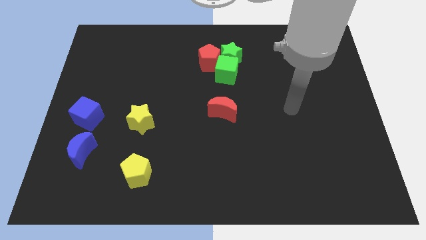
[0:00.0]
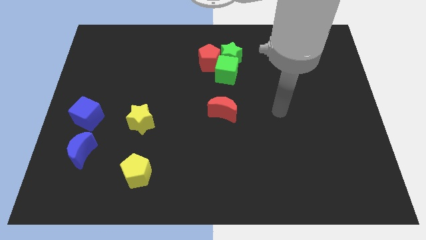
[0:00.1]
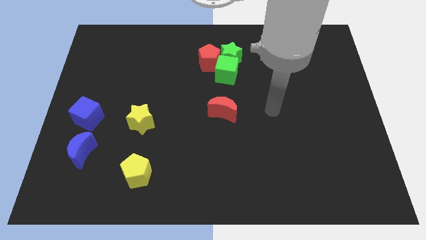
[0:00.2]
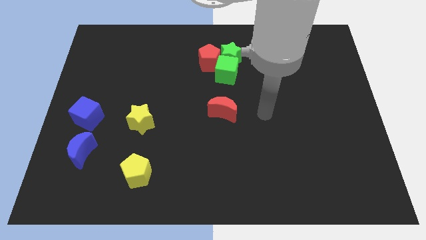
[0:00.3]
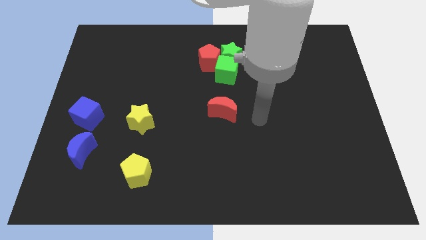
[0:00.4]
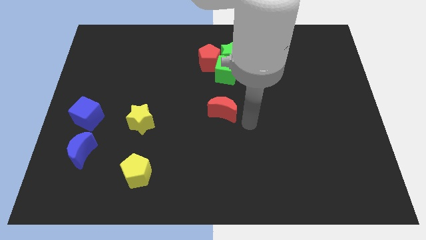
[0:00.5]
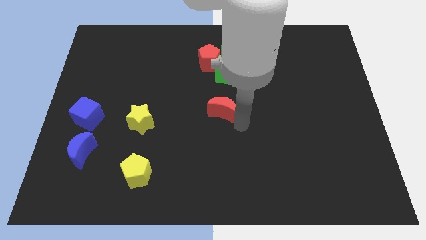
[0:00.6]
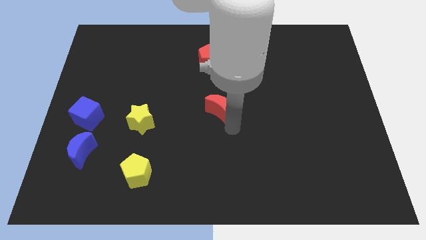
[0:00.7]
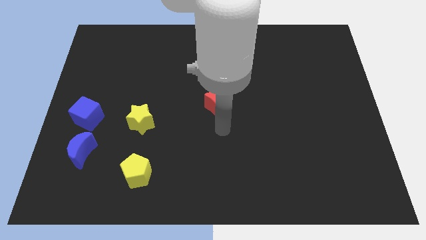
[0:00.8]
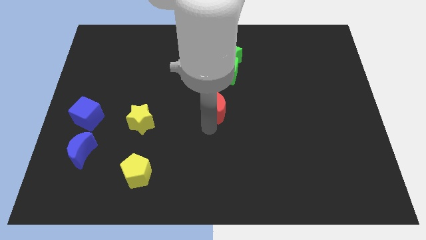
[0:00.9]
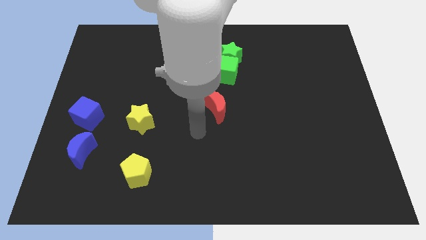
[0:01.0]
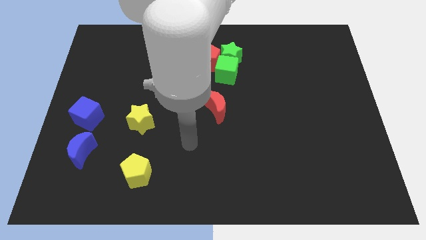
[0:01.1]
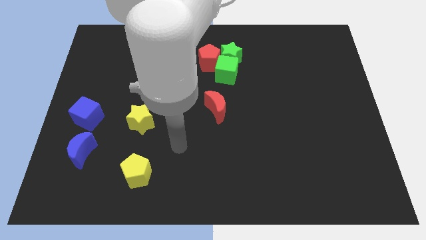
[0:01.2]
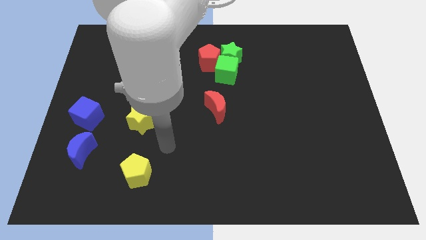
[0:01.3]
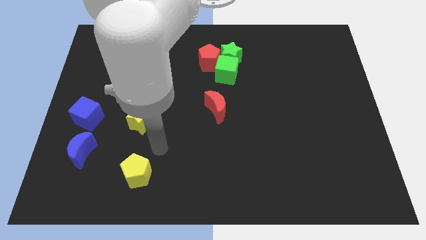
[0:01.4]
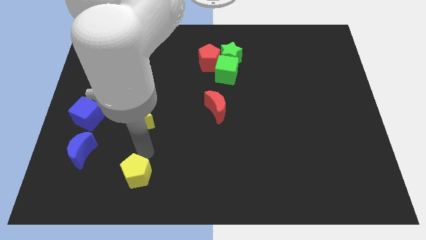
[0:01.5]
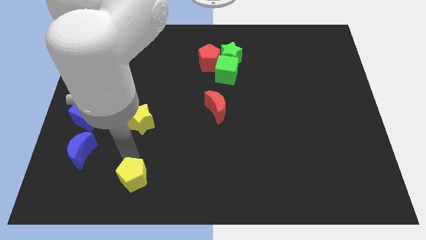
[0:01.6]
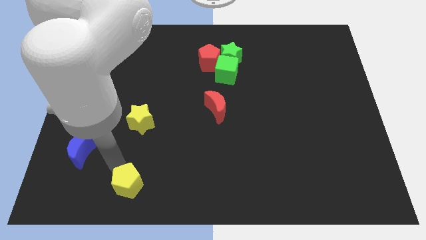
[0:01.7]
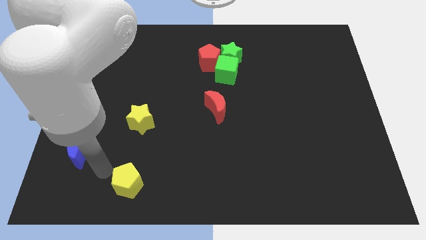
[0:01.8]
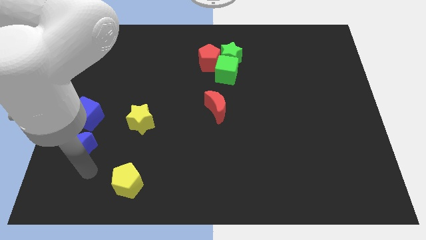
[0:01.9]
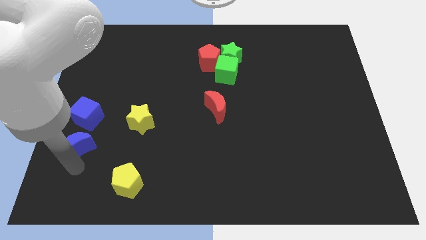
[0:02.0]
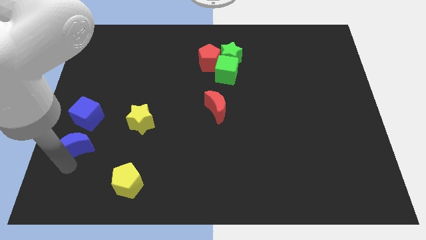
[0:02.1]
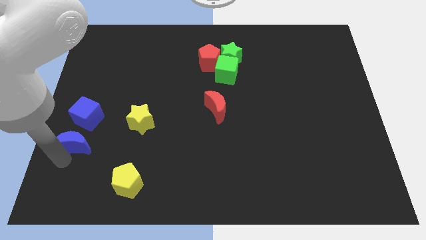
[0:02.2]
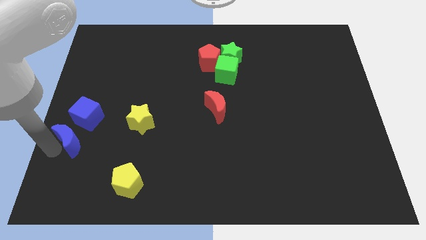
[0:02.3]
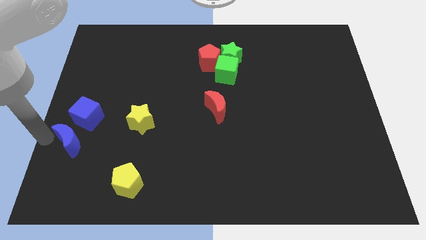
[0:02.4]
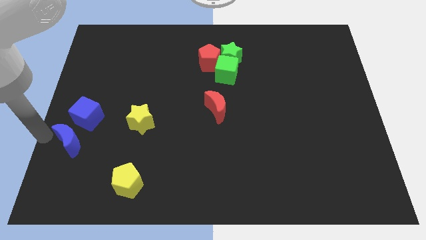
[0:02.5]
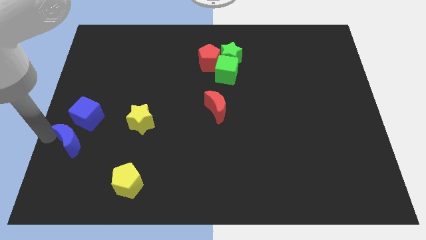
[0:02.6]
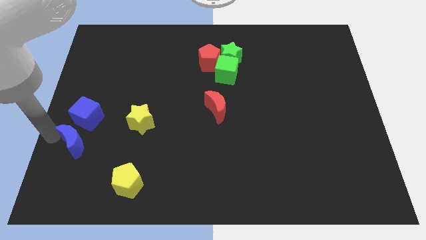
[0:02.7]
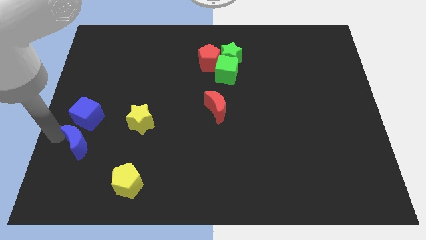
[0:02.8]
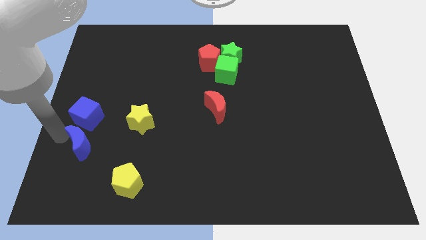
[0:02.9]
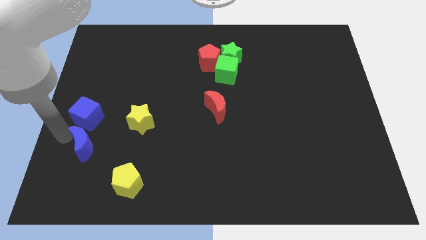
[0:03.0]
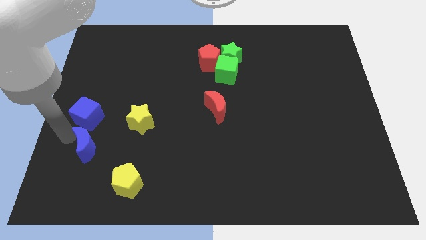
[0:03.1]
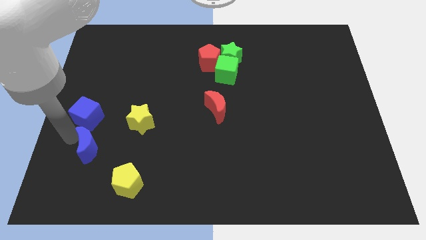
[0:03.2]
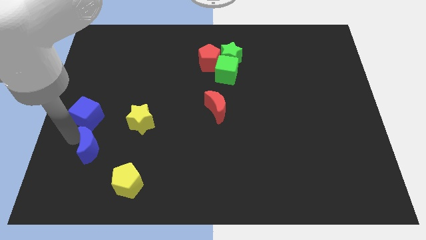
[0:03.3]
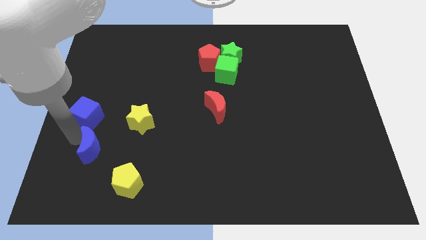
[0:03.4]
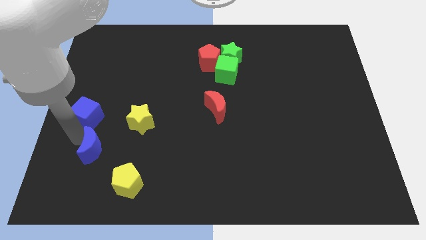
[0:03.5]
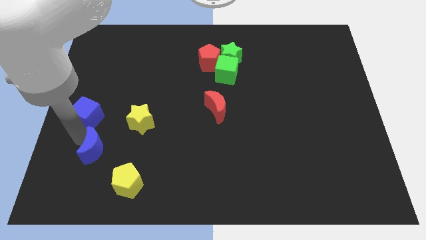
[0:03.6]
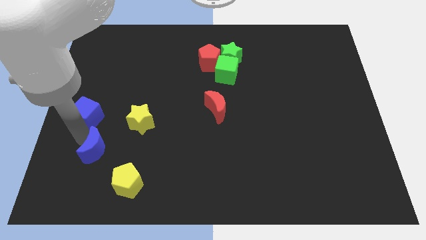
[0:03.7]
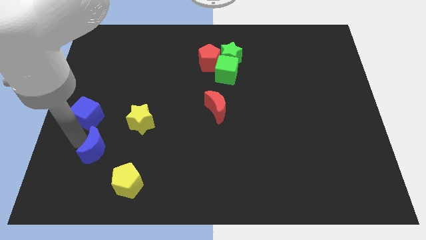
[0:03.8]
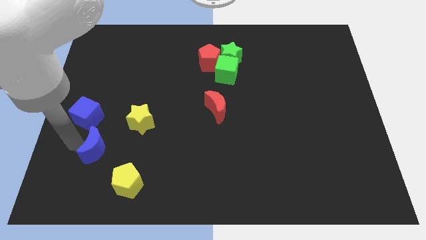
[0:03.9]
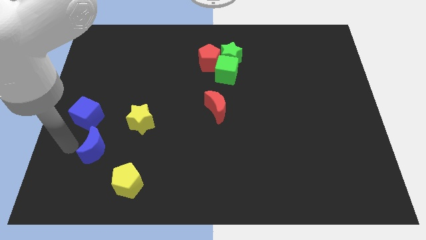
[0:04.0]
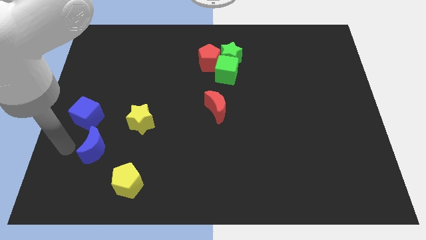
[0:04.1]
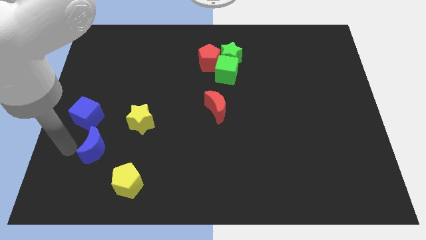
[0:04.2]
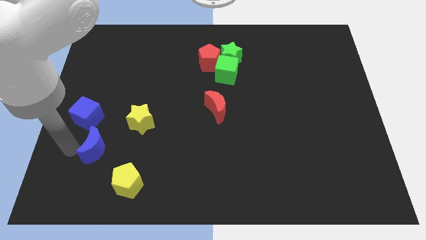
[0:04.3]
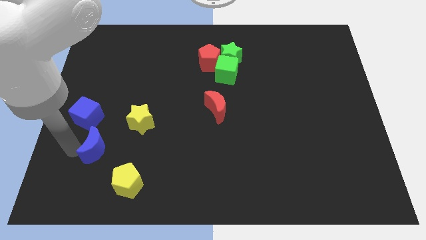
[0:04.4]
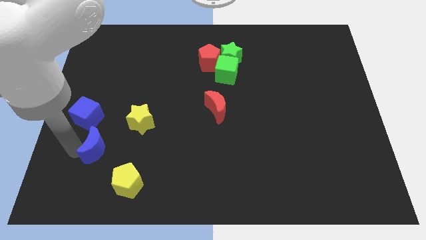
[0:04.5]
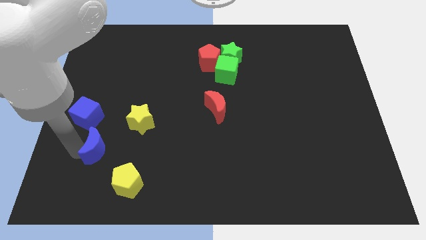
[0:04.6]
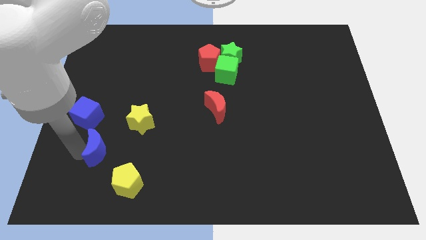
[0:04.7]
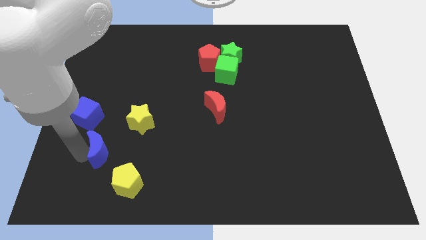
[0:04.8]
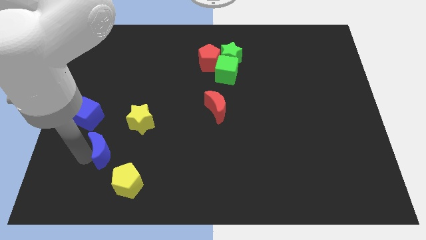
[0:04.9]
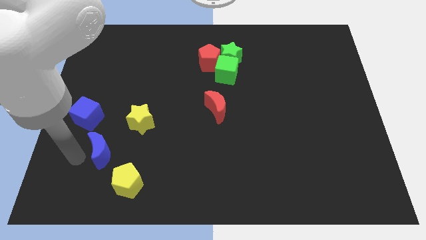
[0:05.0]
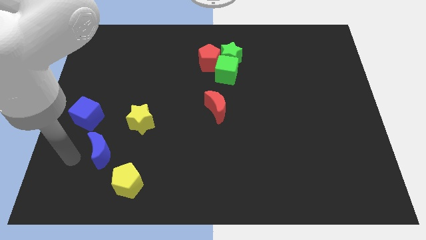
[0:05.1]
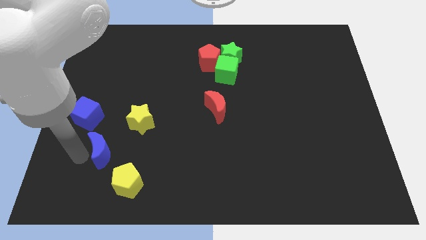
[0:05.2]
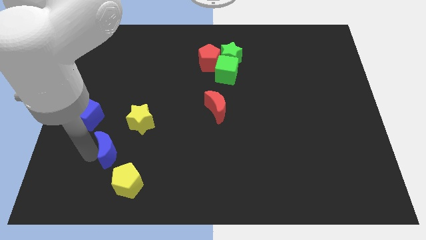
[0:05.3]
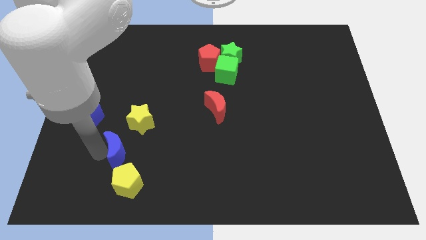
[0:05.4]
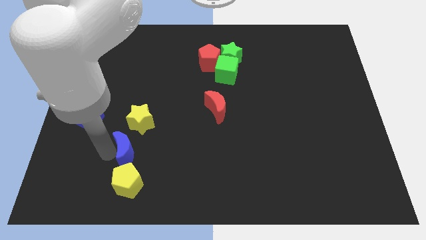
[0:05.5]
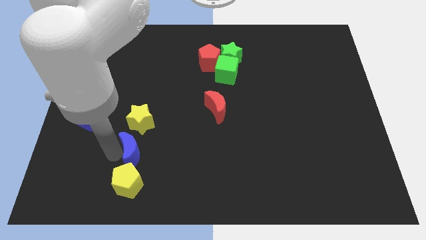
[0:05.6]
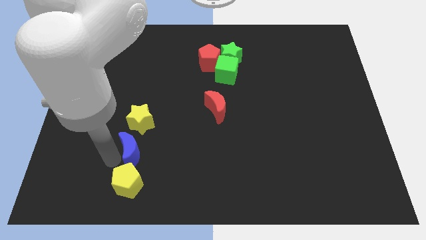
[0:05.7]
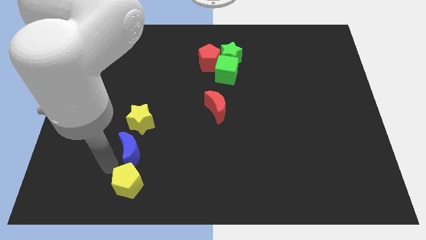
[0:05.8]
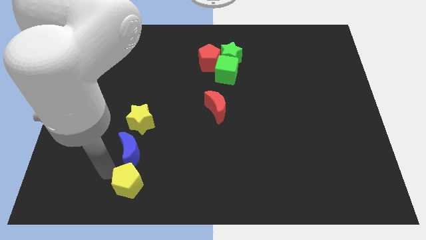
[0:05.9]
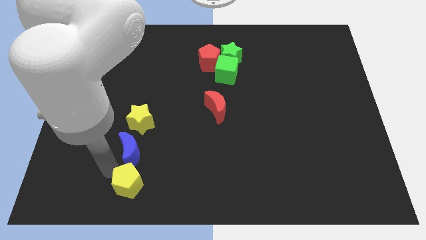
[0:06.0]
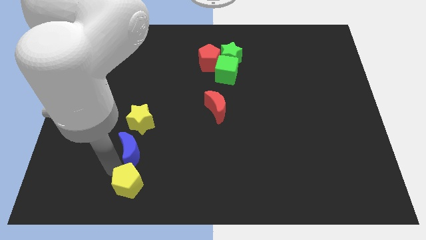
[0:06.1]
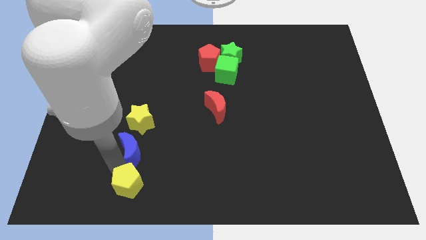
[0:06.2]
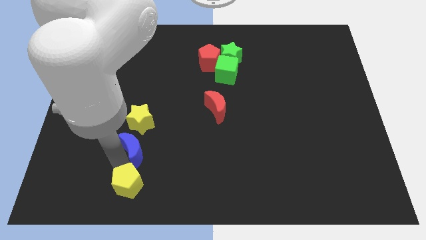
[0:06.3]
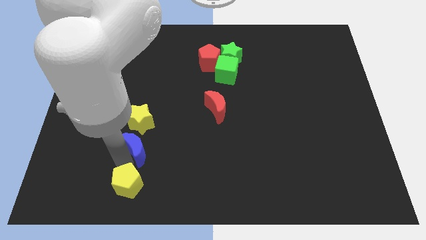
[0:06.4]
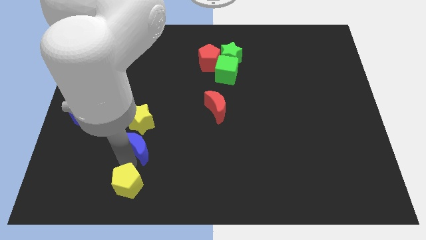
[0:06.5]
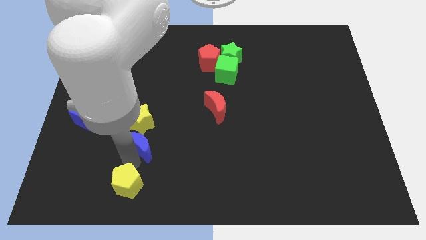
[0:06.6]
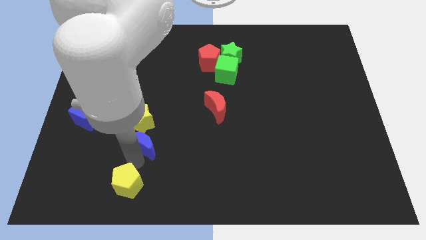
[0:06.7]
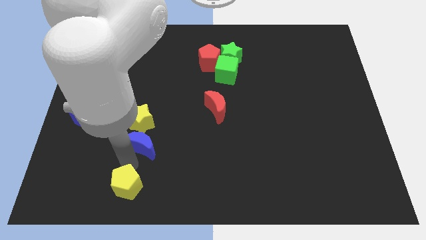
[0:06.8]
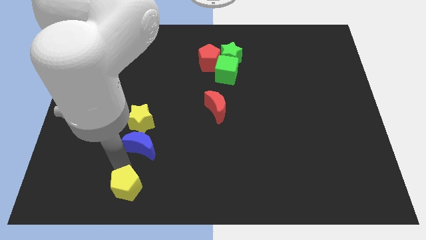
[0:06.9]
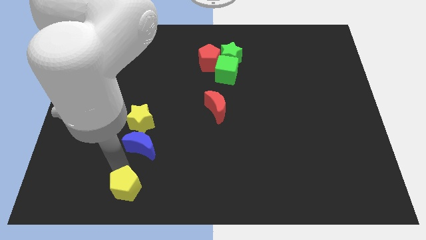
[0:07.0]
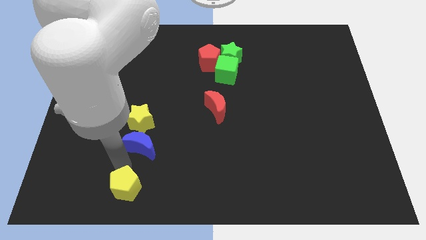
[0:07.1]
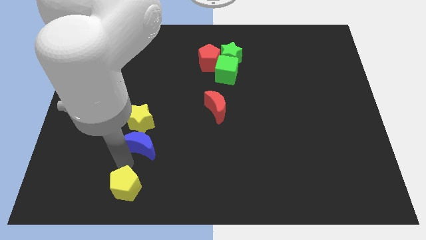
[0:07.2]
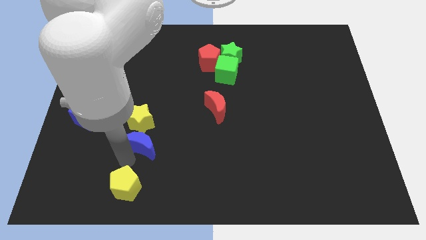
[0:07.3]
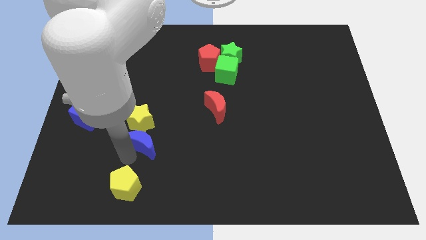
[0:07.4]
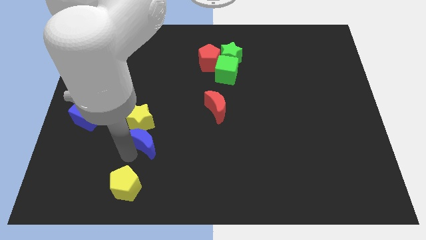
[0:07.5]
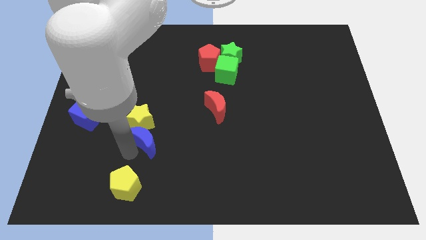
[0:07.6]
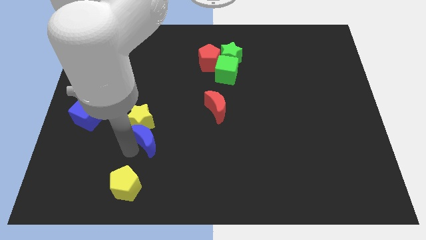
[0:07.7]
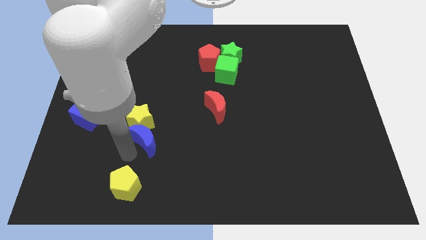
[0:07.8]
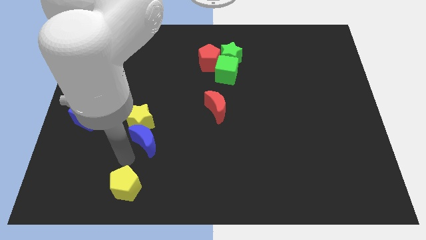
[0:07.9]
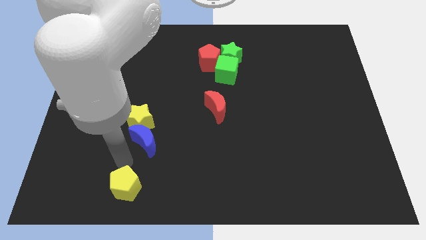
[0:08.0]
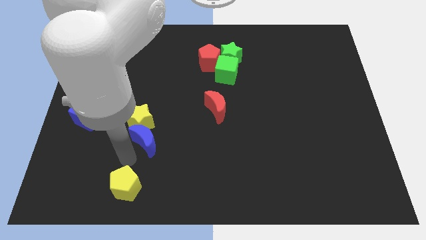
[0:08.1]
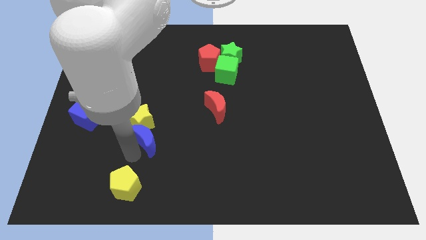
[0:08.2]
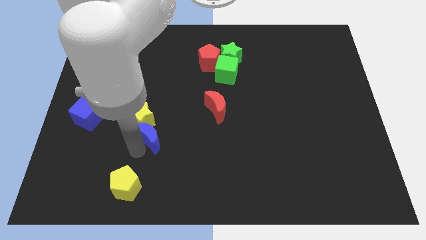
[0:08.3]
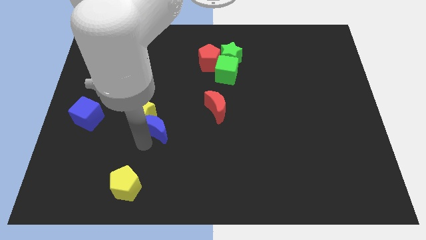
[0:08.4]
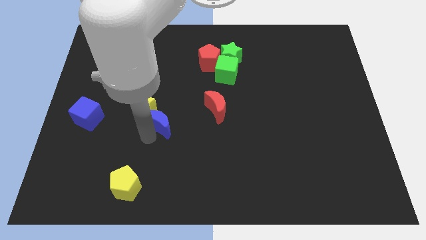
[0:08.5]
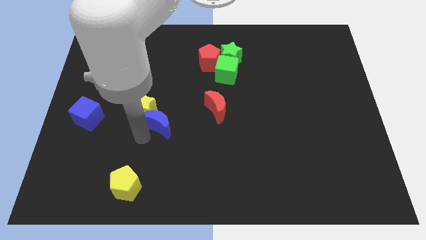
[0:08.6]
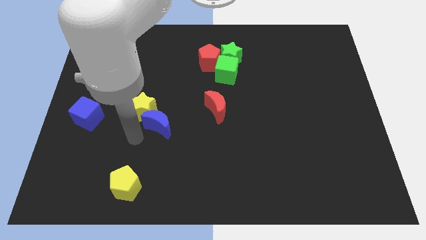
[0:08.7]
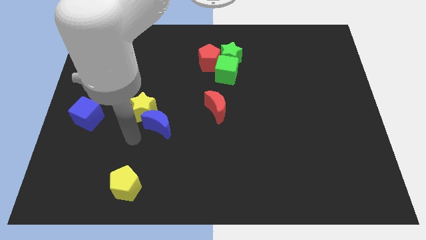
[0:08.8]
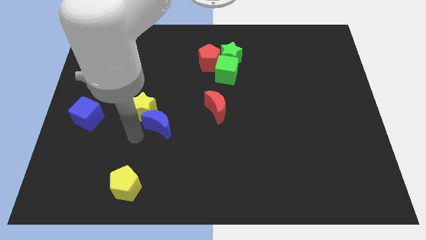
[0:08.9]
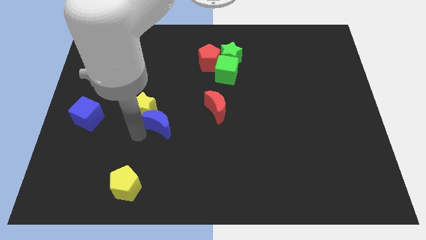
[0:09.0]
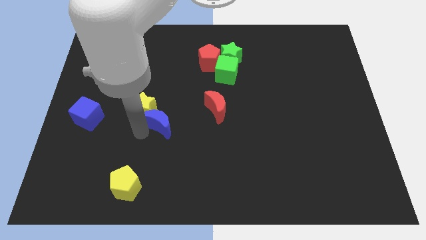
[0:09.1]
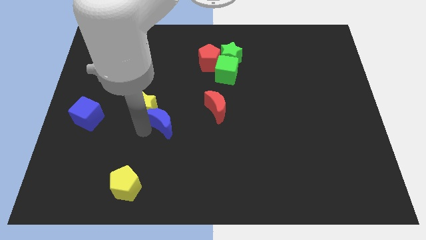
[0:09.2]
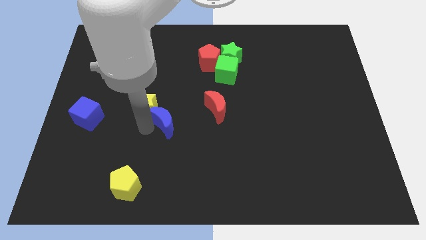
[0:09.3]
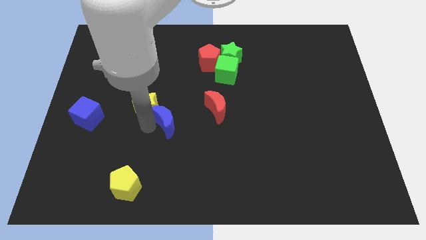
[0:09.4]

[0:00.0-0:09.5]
push the blue moon to the middle of the board
